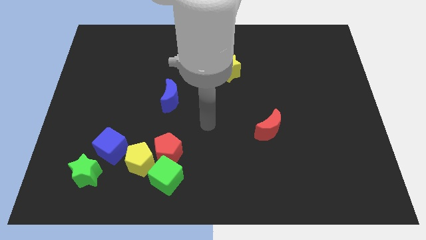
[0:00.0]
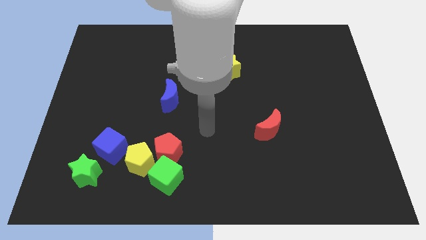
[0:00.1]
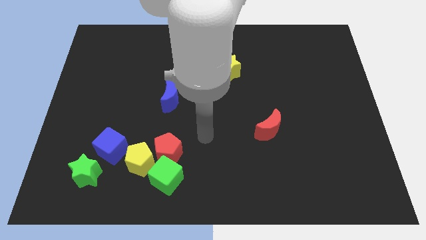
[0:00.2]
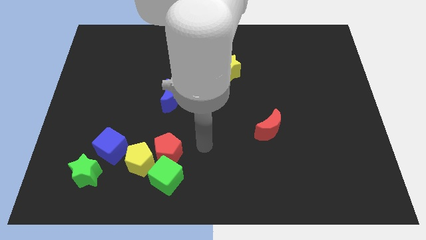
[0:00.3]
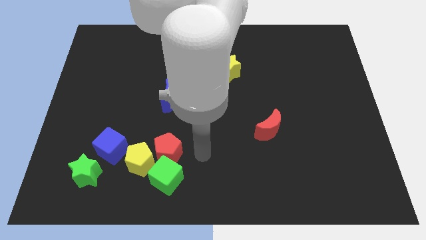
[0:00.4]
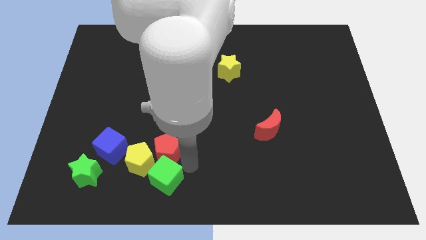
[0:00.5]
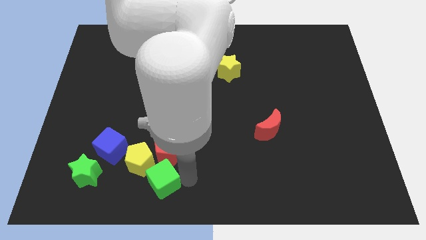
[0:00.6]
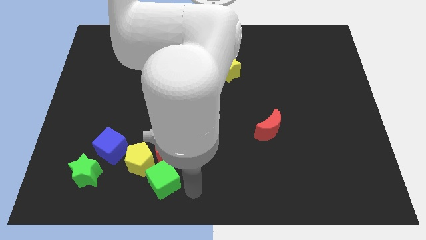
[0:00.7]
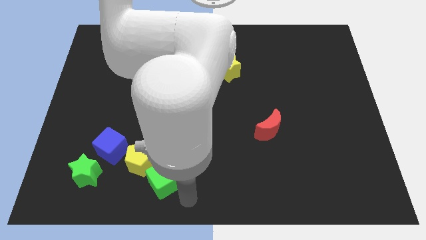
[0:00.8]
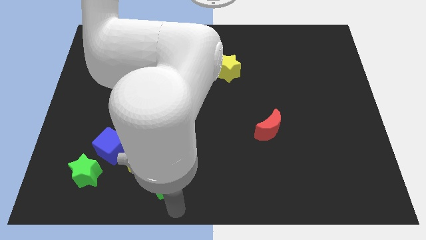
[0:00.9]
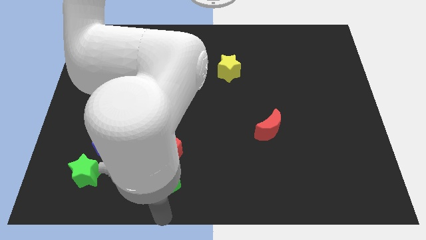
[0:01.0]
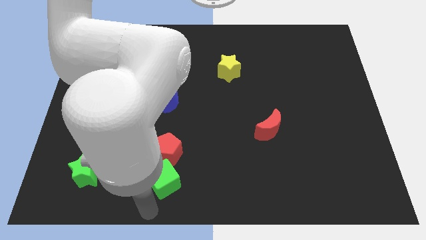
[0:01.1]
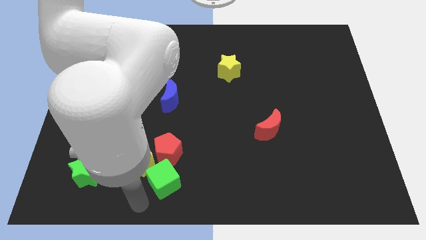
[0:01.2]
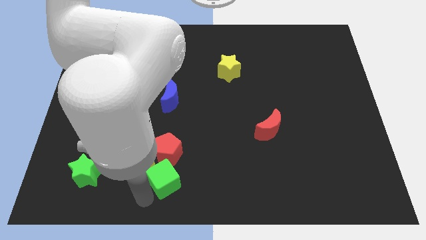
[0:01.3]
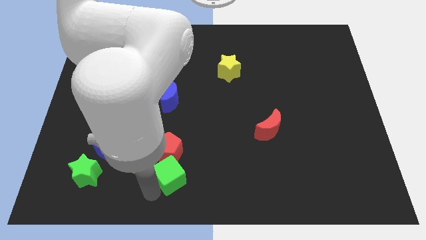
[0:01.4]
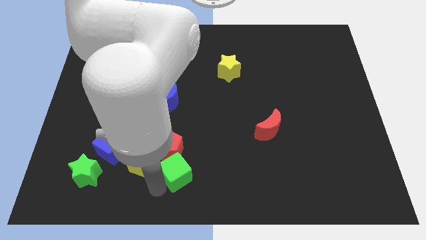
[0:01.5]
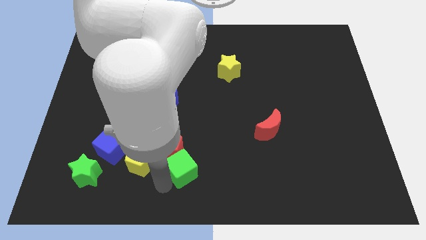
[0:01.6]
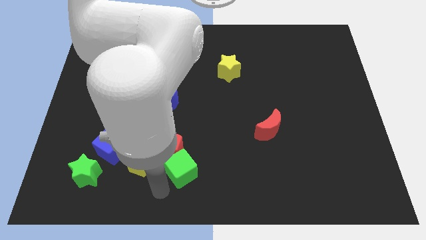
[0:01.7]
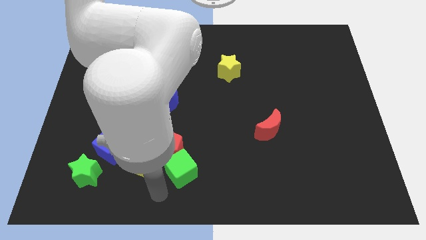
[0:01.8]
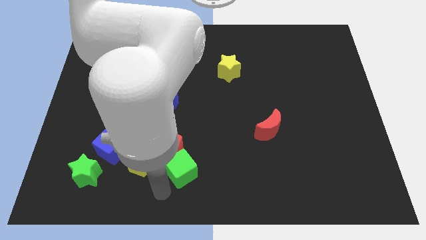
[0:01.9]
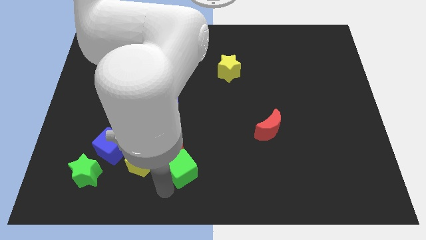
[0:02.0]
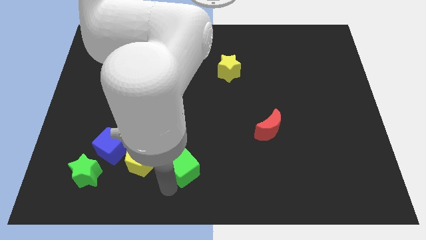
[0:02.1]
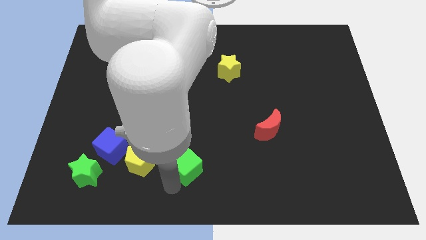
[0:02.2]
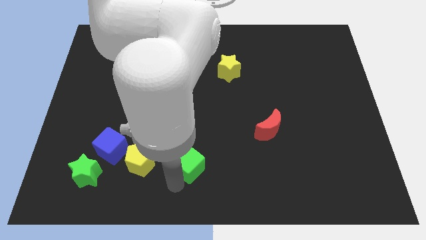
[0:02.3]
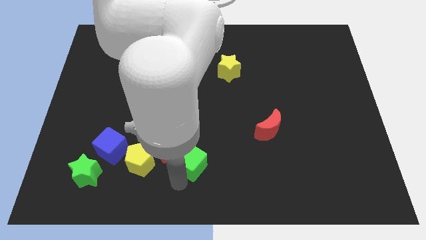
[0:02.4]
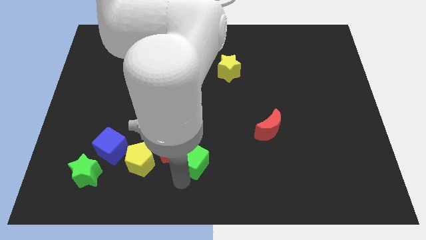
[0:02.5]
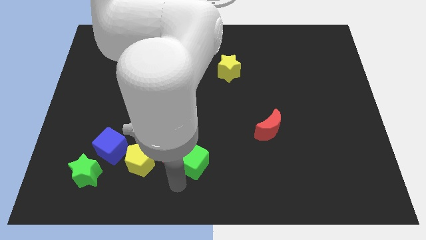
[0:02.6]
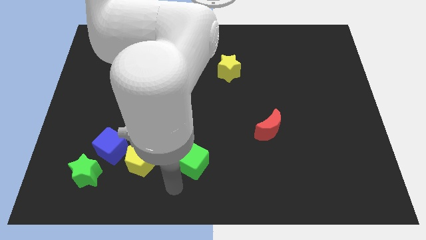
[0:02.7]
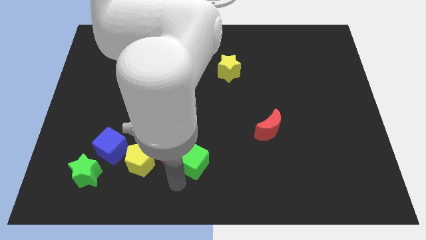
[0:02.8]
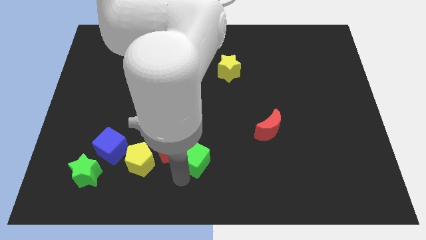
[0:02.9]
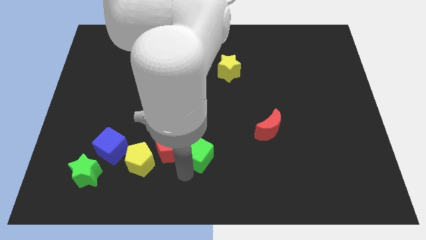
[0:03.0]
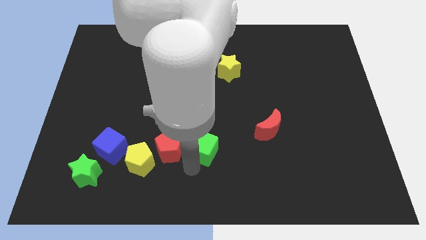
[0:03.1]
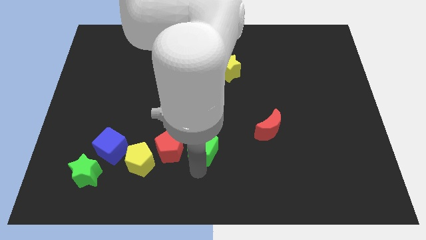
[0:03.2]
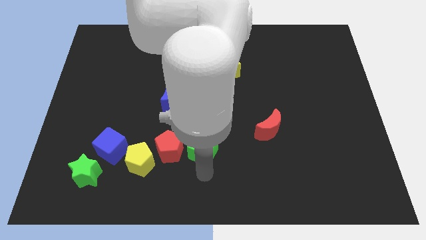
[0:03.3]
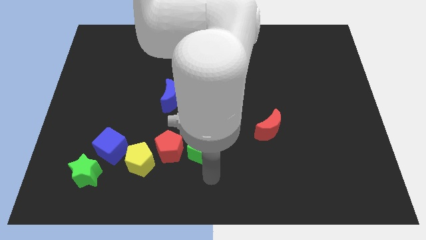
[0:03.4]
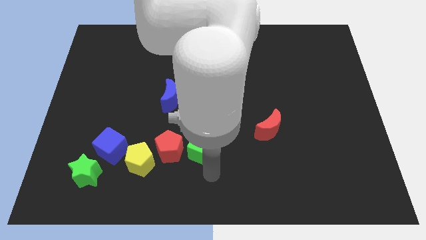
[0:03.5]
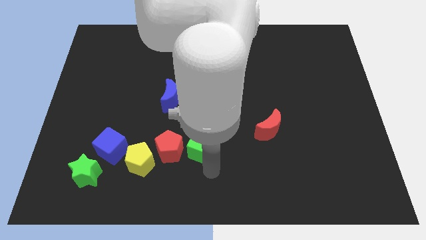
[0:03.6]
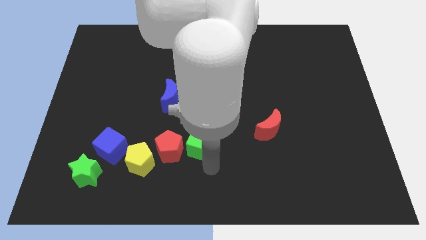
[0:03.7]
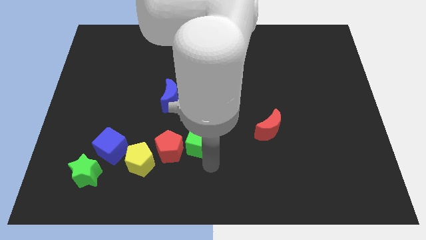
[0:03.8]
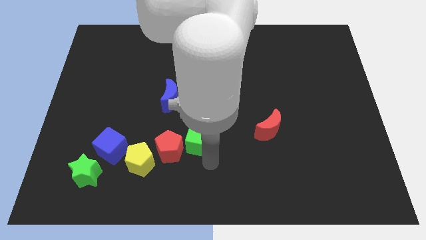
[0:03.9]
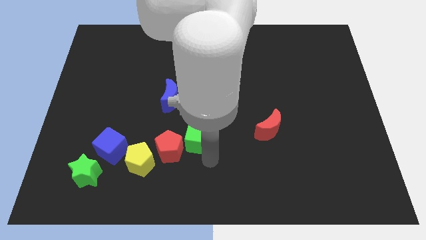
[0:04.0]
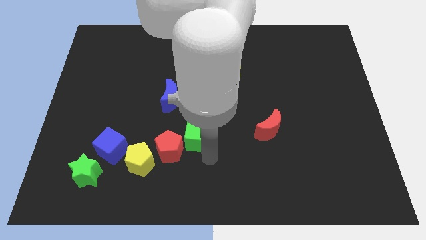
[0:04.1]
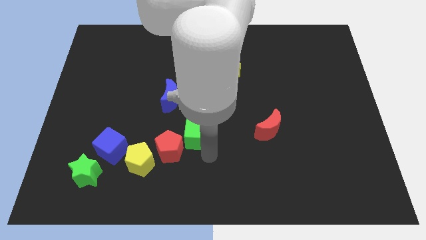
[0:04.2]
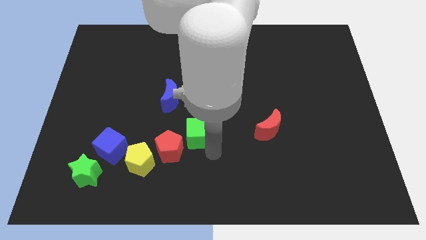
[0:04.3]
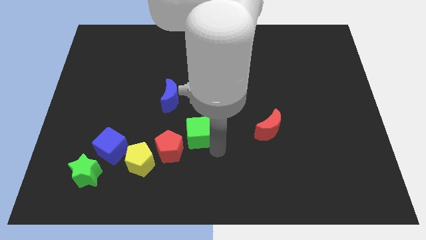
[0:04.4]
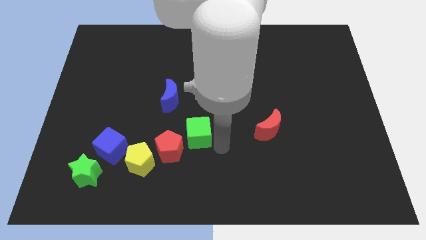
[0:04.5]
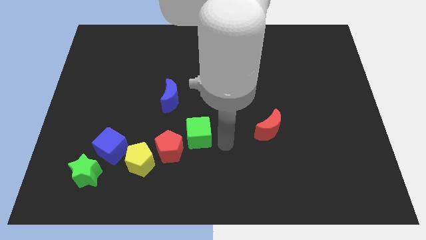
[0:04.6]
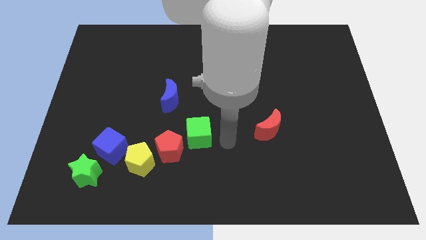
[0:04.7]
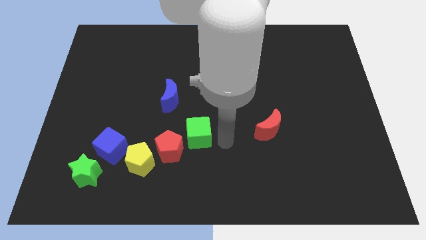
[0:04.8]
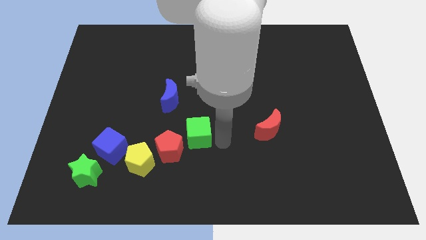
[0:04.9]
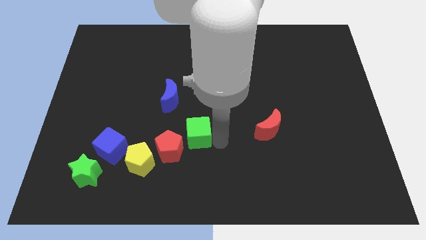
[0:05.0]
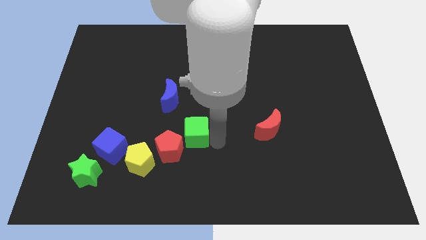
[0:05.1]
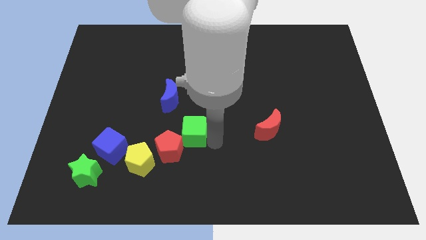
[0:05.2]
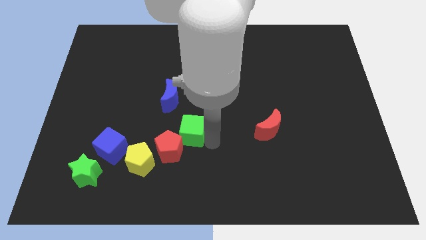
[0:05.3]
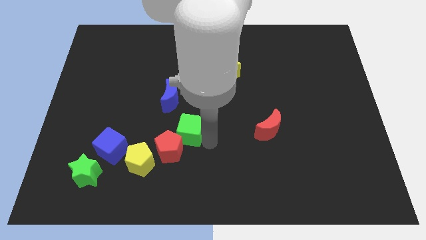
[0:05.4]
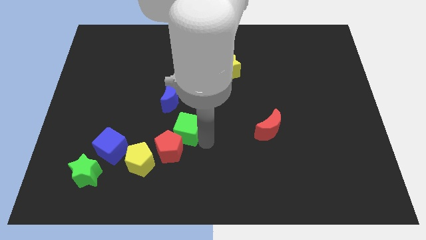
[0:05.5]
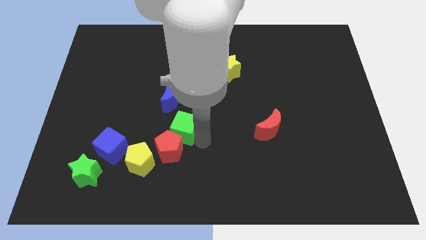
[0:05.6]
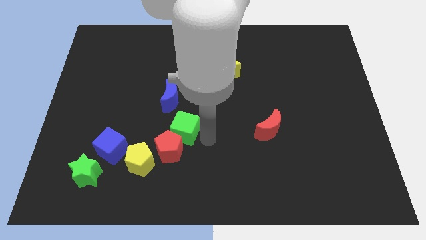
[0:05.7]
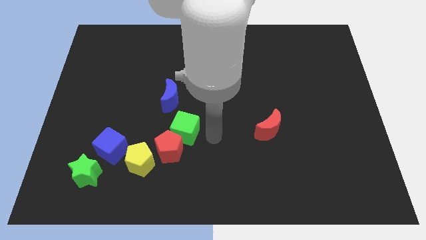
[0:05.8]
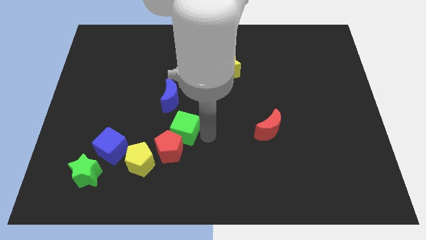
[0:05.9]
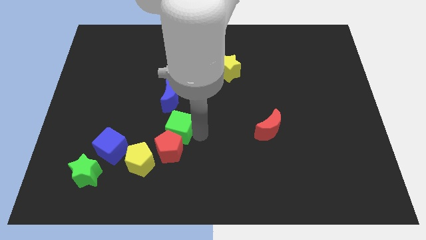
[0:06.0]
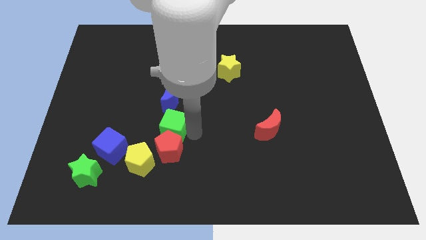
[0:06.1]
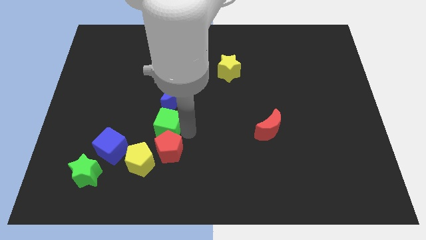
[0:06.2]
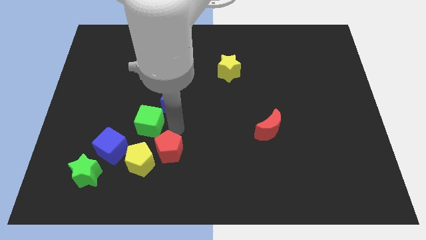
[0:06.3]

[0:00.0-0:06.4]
move the green cube a little up and then to the left

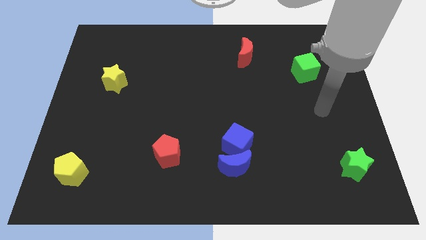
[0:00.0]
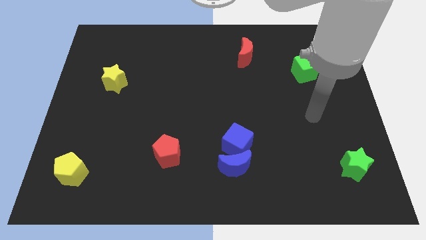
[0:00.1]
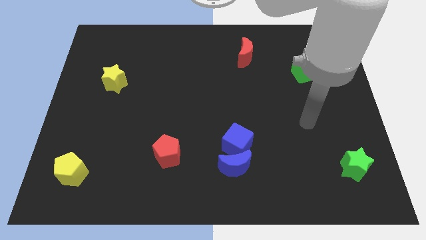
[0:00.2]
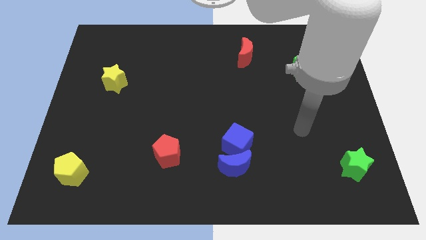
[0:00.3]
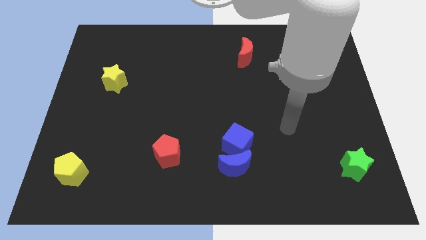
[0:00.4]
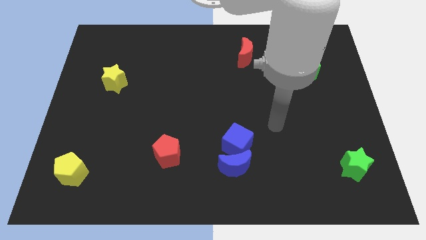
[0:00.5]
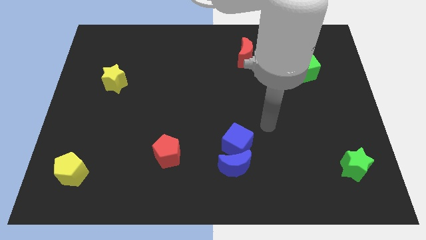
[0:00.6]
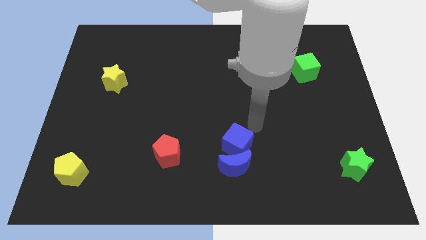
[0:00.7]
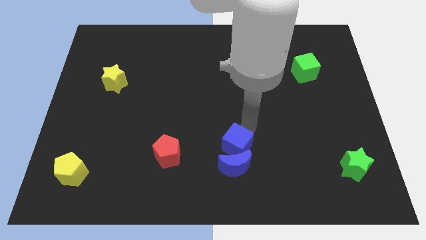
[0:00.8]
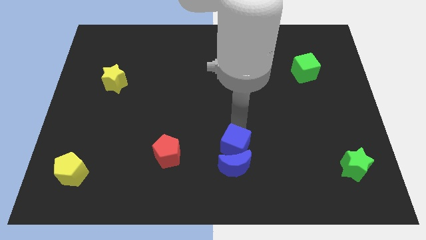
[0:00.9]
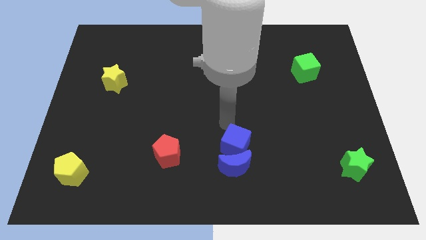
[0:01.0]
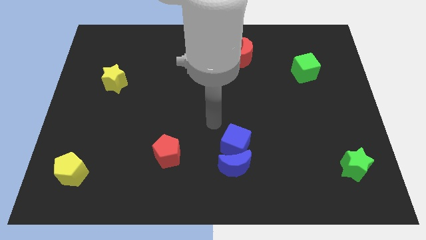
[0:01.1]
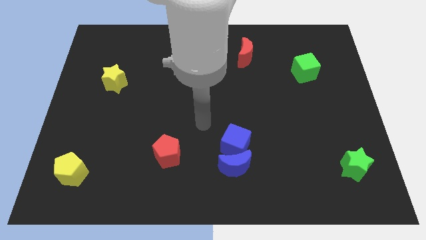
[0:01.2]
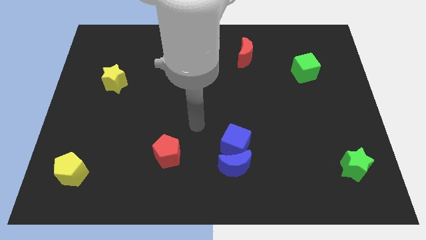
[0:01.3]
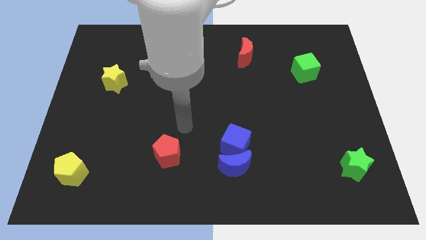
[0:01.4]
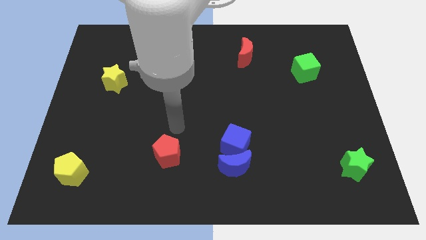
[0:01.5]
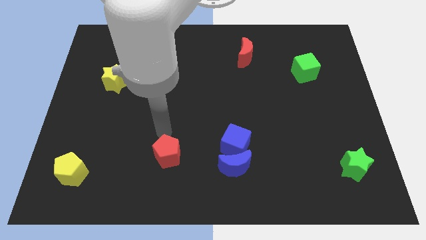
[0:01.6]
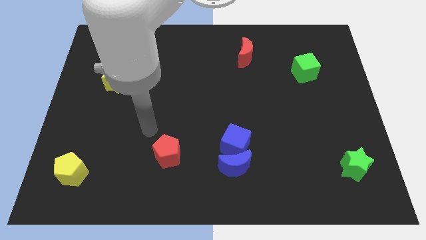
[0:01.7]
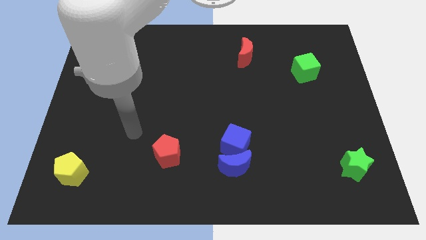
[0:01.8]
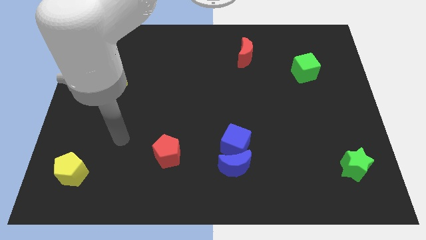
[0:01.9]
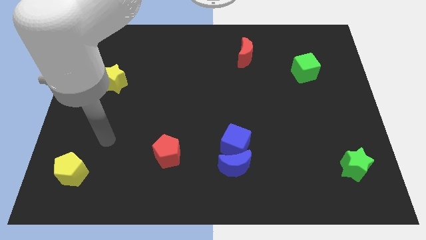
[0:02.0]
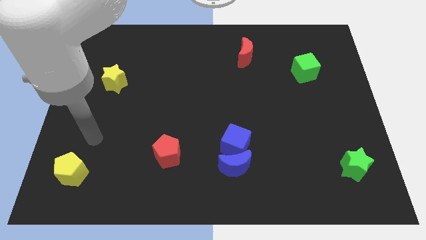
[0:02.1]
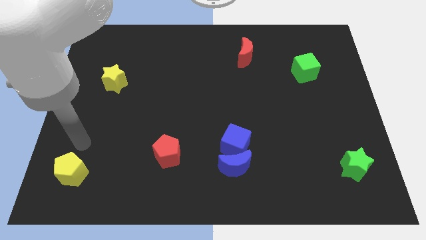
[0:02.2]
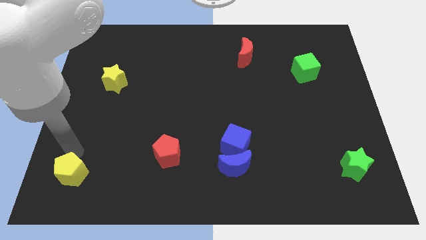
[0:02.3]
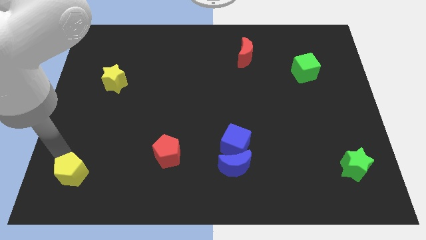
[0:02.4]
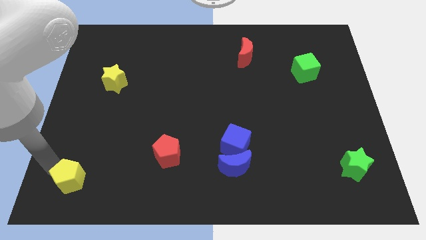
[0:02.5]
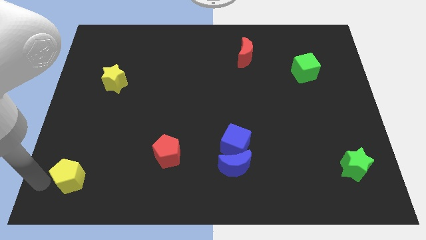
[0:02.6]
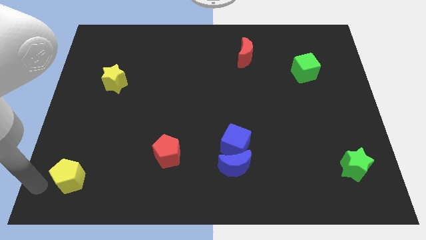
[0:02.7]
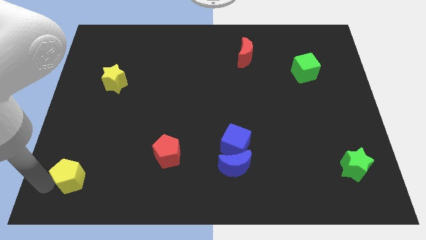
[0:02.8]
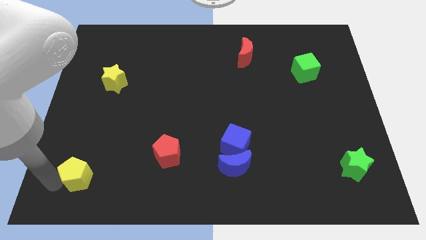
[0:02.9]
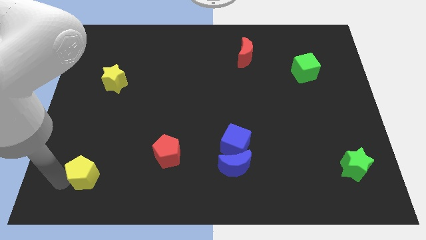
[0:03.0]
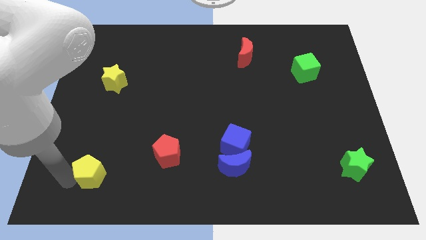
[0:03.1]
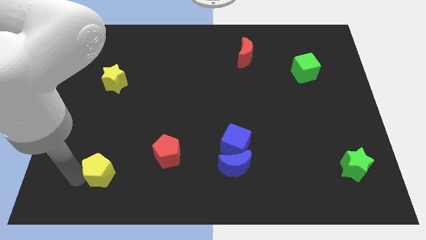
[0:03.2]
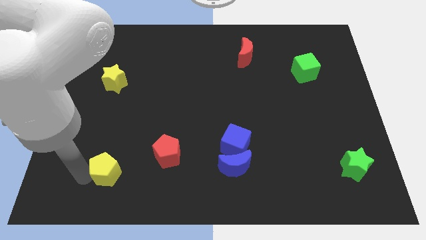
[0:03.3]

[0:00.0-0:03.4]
slide the yellow pentagon to the right somewhat
